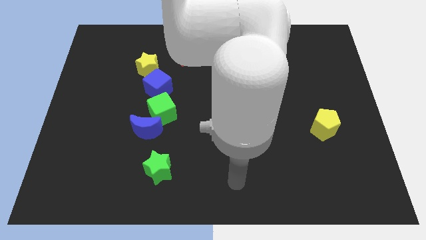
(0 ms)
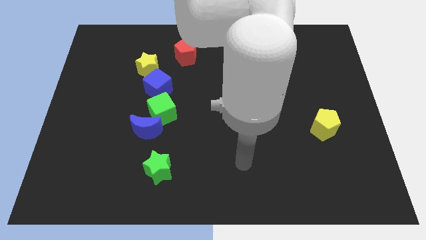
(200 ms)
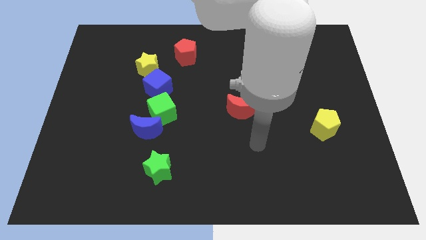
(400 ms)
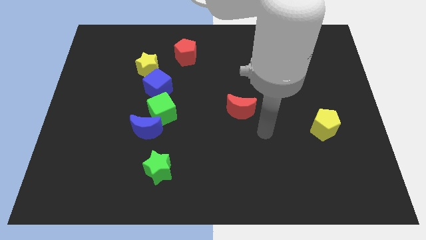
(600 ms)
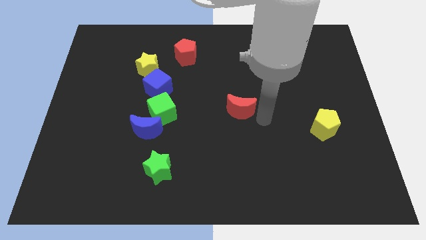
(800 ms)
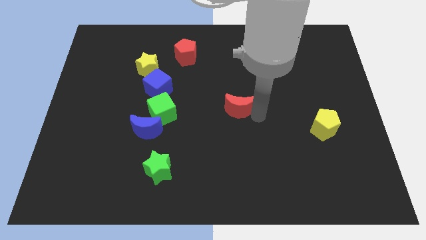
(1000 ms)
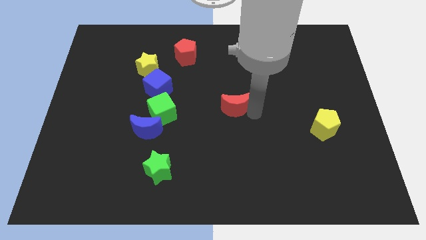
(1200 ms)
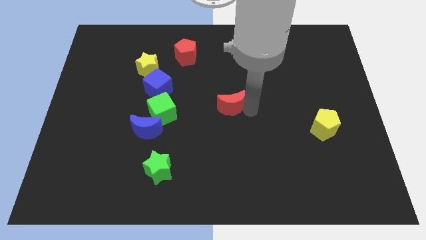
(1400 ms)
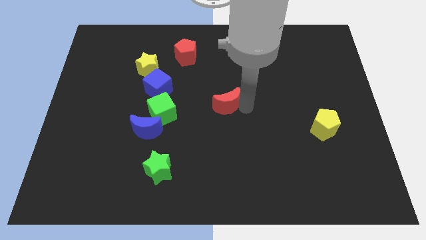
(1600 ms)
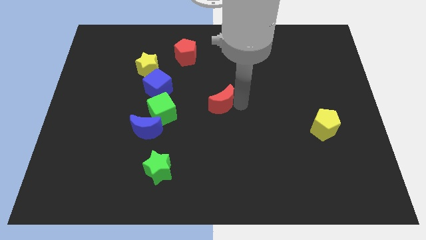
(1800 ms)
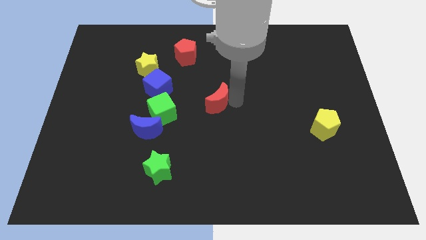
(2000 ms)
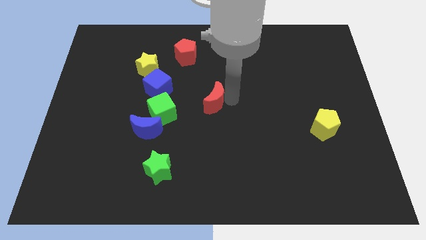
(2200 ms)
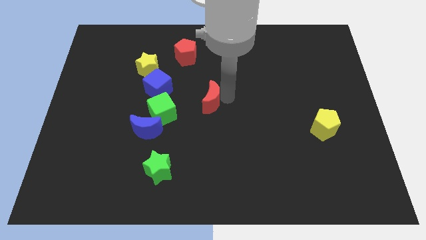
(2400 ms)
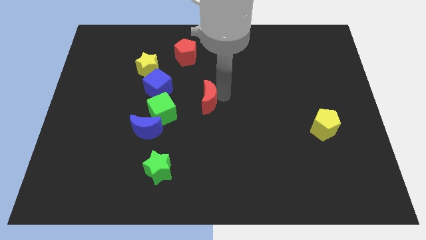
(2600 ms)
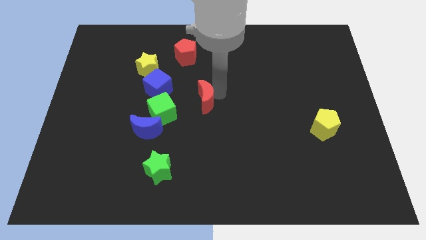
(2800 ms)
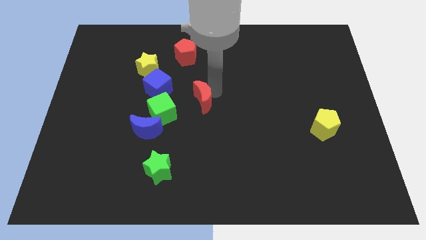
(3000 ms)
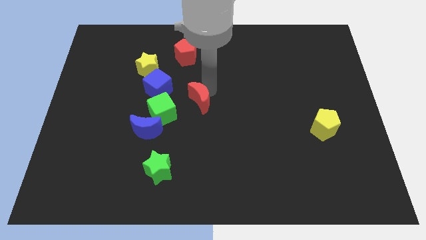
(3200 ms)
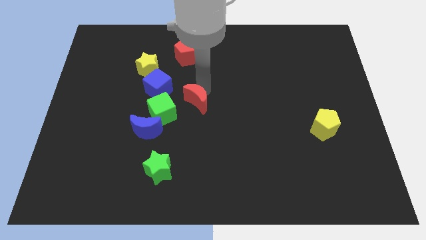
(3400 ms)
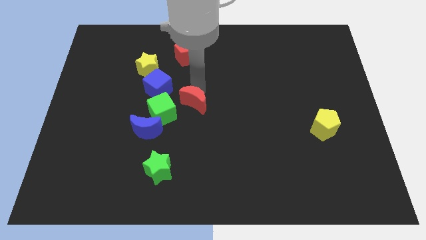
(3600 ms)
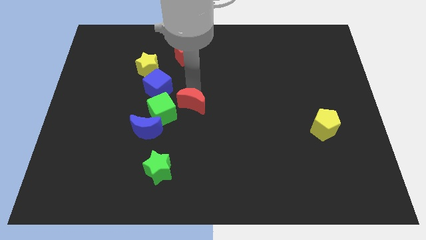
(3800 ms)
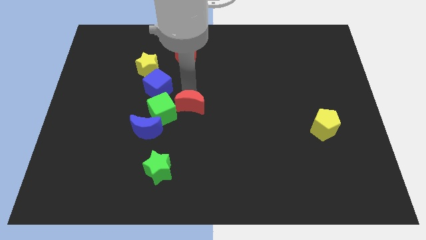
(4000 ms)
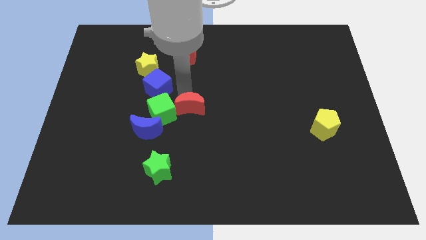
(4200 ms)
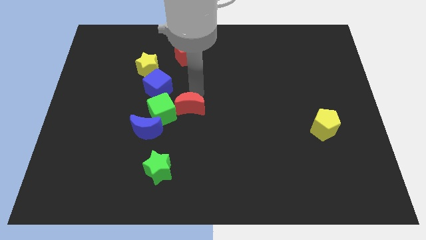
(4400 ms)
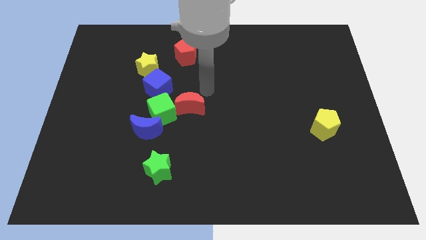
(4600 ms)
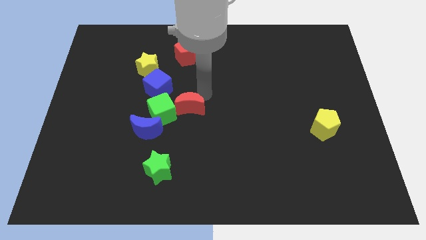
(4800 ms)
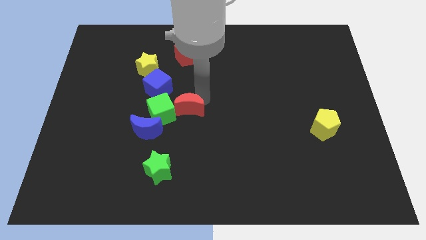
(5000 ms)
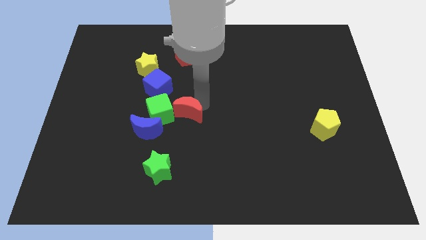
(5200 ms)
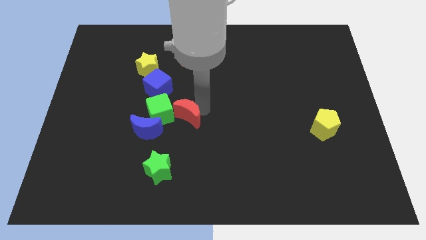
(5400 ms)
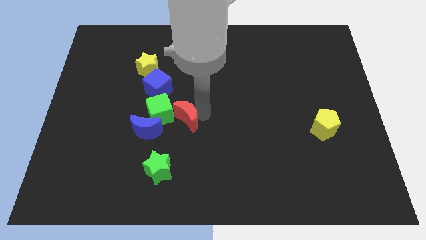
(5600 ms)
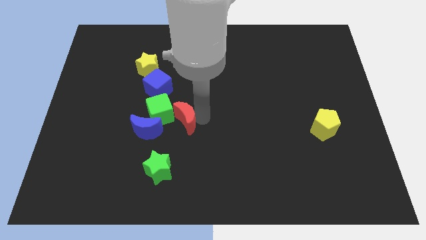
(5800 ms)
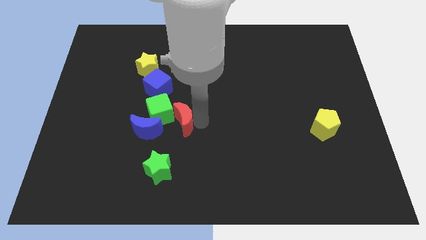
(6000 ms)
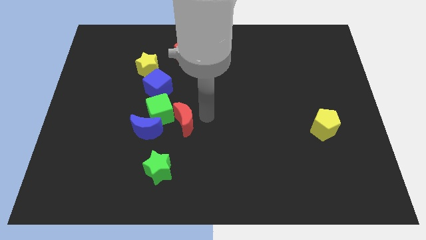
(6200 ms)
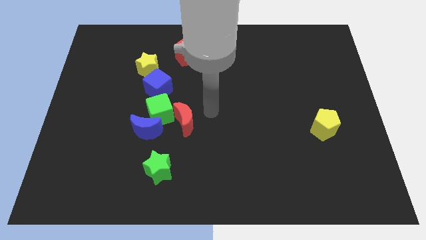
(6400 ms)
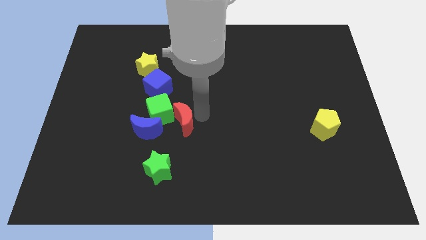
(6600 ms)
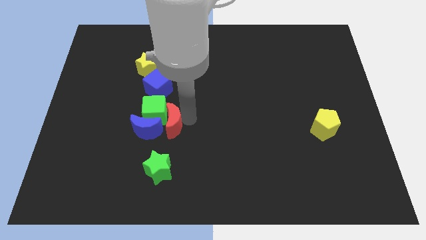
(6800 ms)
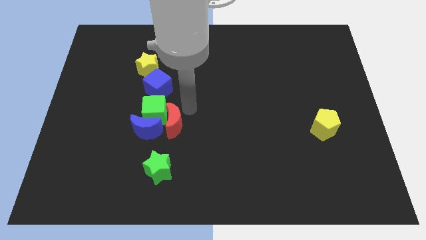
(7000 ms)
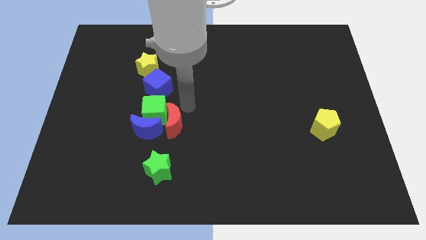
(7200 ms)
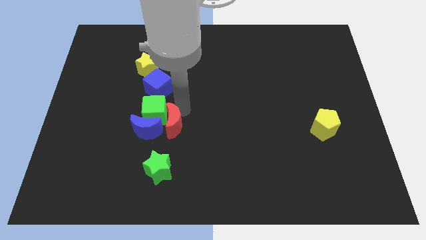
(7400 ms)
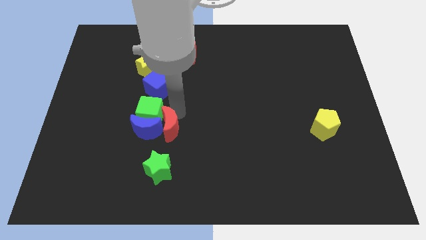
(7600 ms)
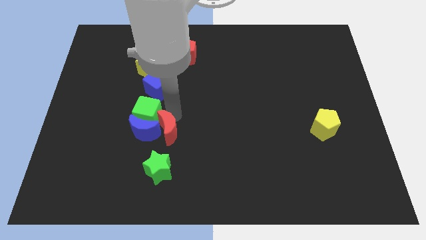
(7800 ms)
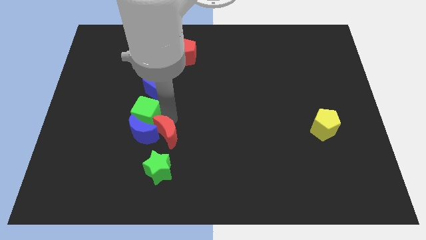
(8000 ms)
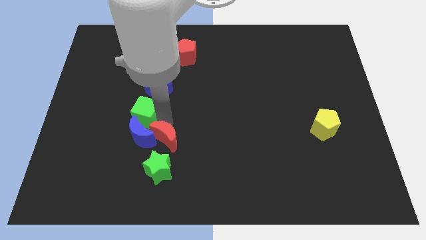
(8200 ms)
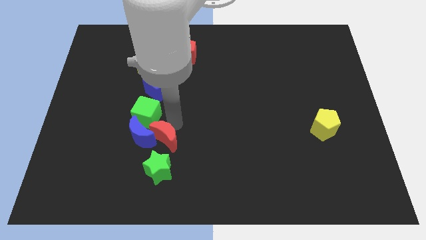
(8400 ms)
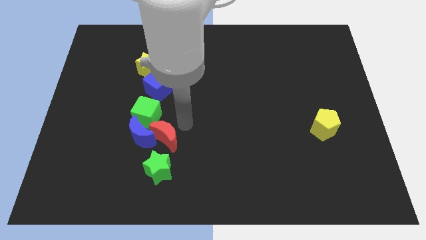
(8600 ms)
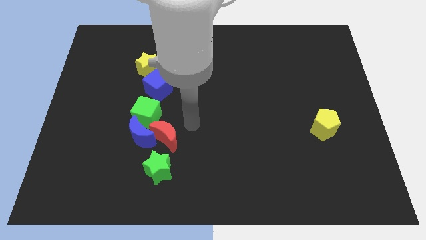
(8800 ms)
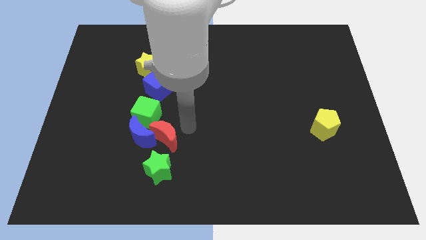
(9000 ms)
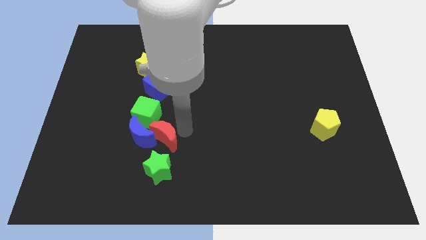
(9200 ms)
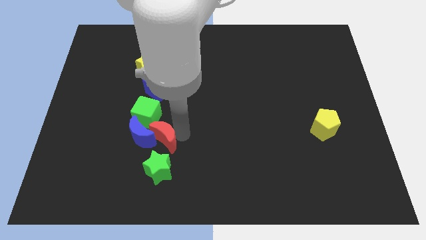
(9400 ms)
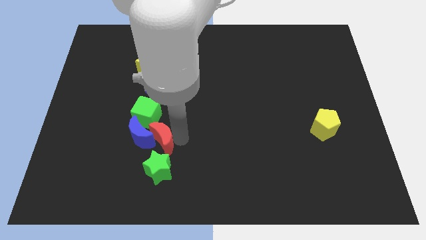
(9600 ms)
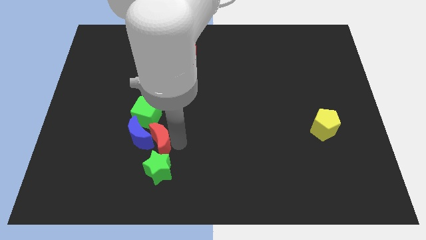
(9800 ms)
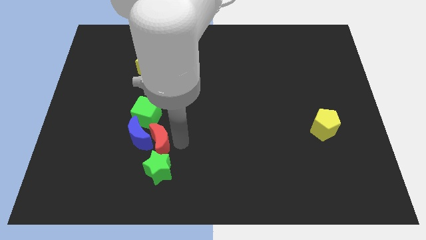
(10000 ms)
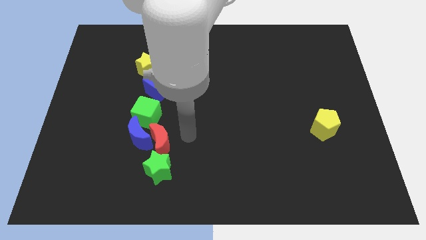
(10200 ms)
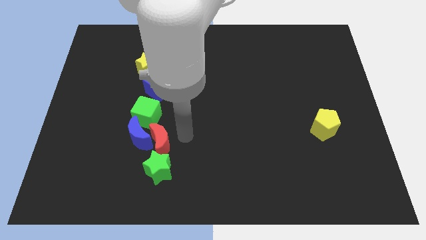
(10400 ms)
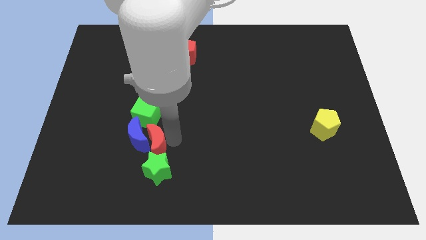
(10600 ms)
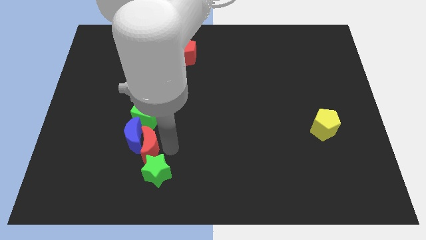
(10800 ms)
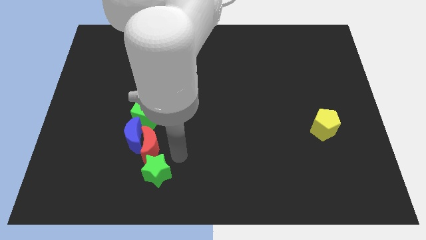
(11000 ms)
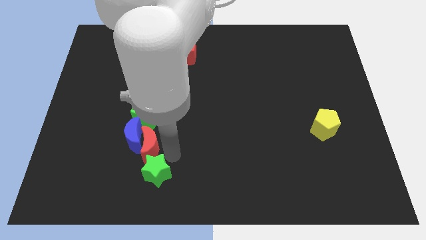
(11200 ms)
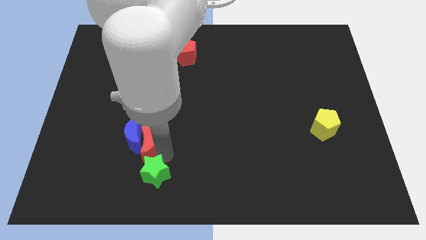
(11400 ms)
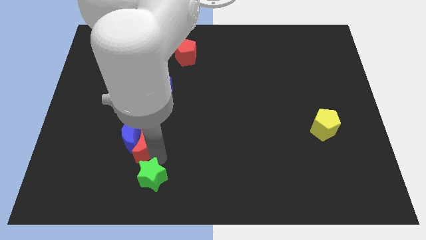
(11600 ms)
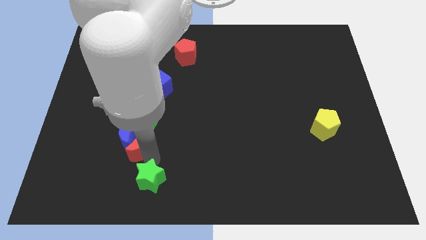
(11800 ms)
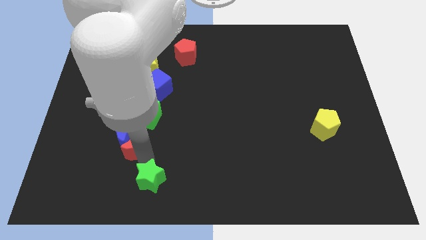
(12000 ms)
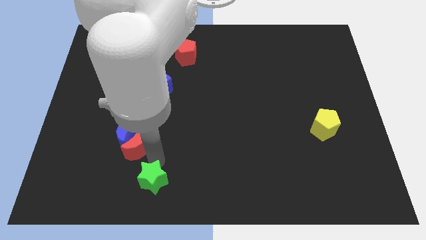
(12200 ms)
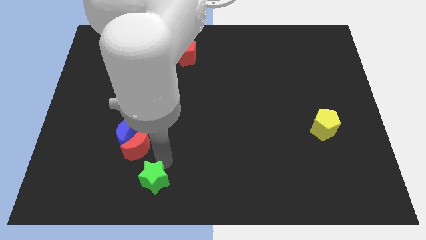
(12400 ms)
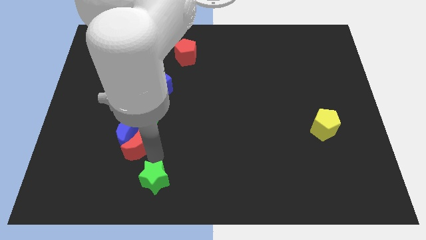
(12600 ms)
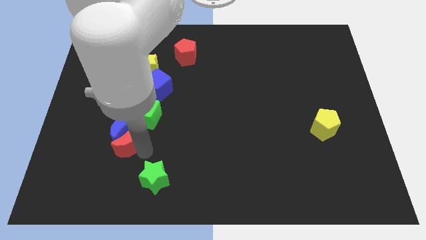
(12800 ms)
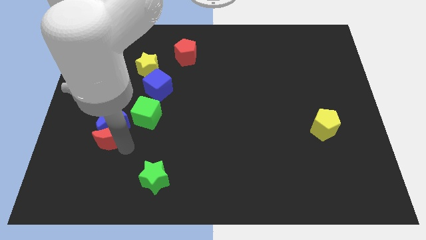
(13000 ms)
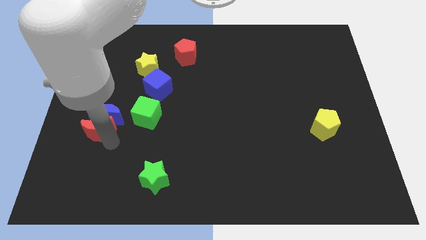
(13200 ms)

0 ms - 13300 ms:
slide the red moon left of the green cube

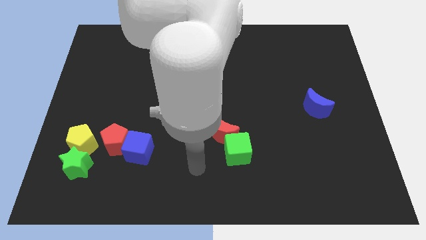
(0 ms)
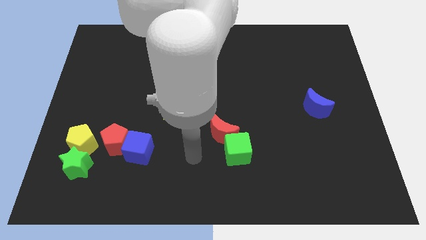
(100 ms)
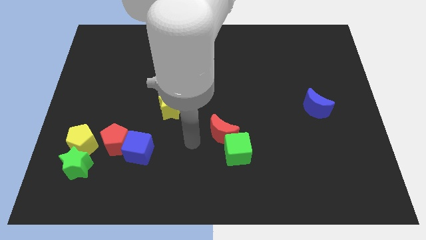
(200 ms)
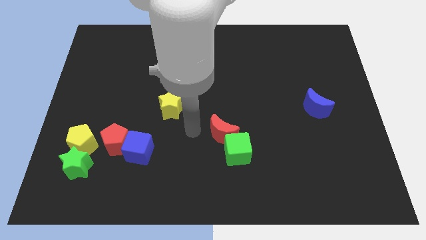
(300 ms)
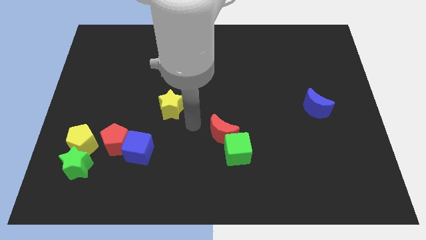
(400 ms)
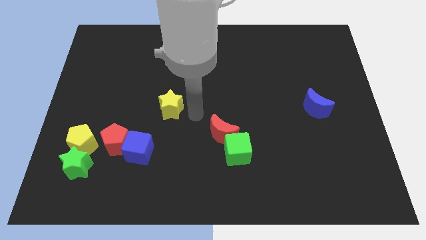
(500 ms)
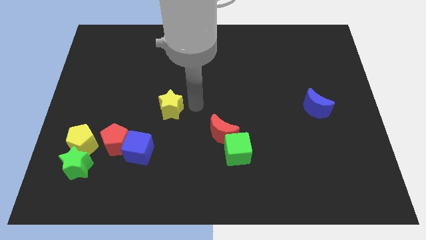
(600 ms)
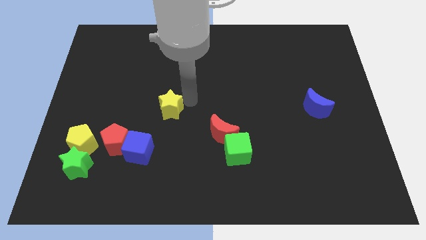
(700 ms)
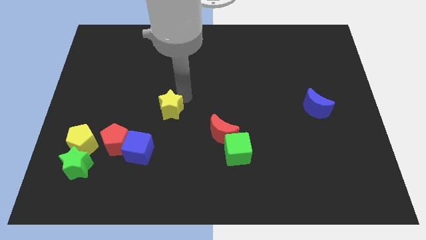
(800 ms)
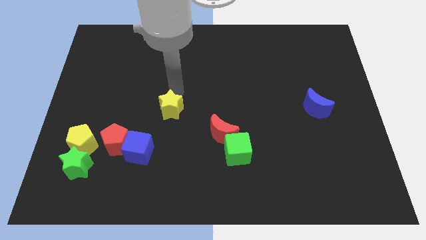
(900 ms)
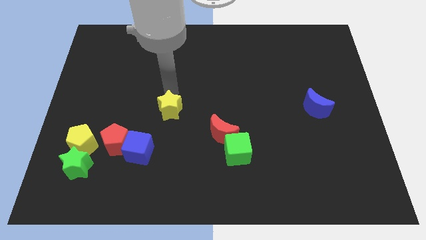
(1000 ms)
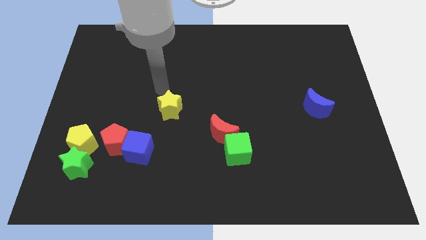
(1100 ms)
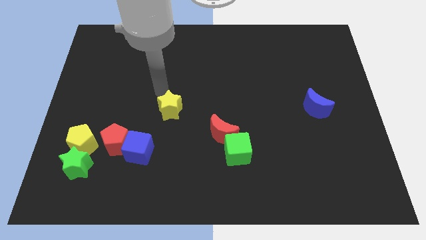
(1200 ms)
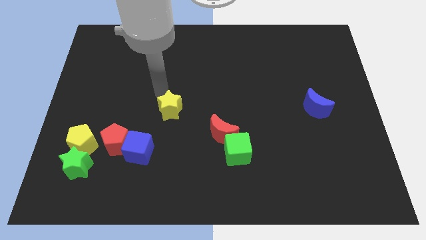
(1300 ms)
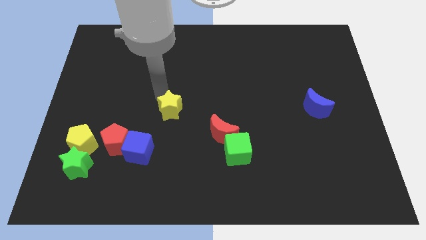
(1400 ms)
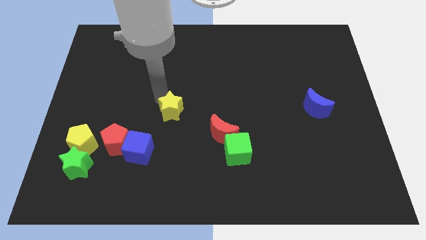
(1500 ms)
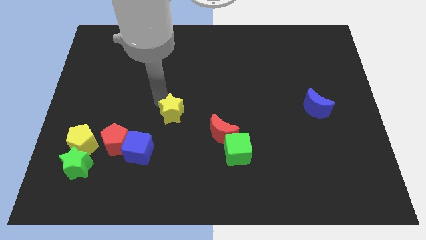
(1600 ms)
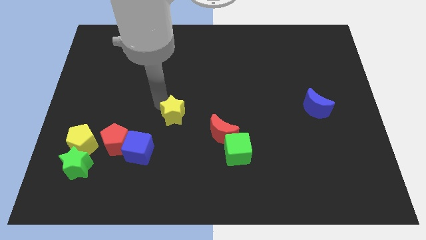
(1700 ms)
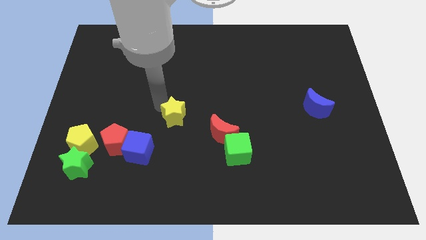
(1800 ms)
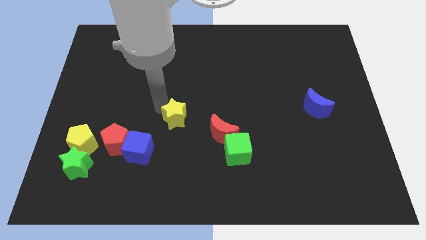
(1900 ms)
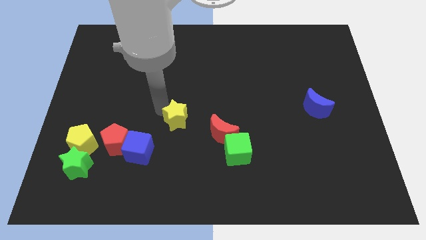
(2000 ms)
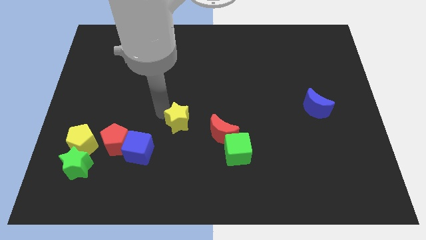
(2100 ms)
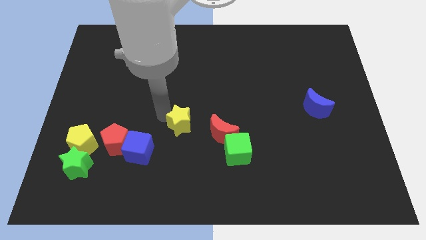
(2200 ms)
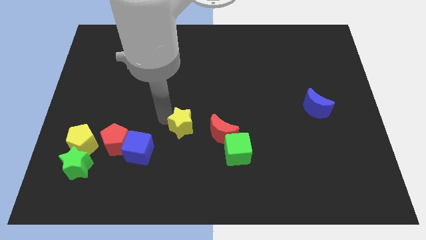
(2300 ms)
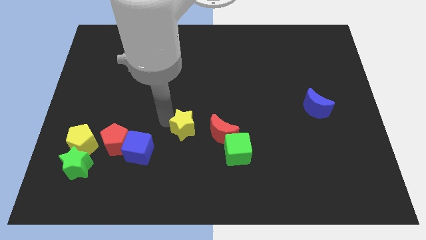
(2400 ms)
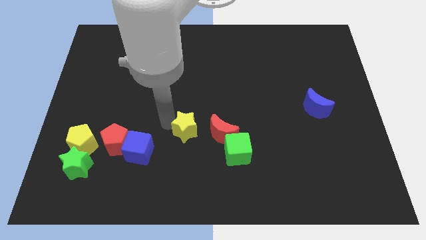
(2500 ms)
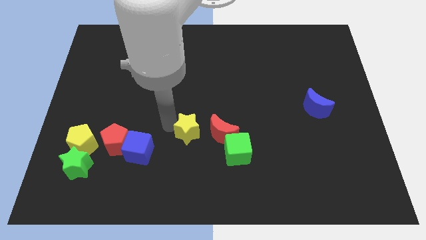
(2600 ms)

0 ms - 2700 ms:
put the yellow star right of the blue cube
